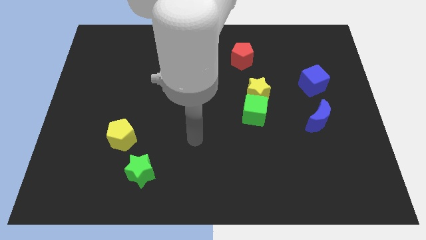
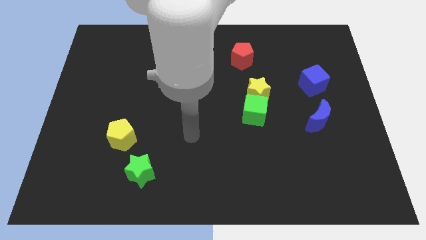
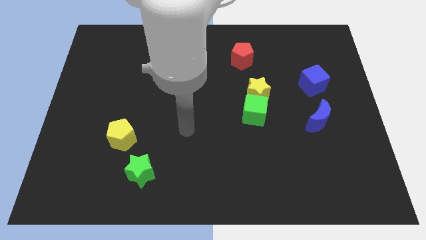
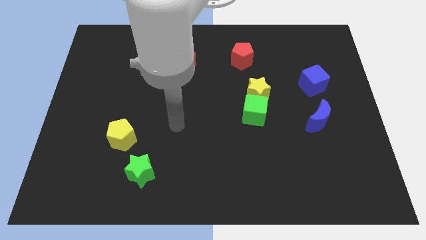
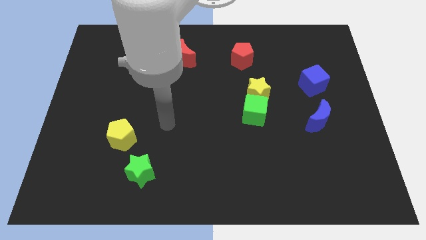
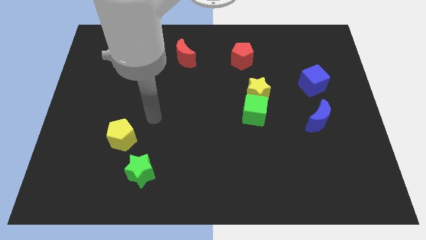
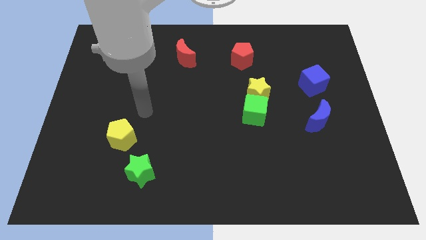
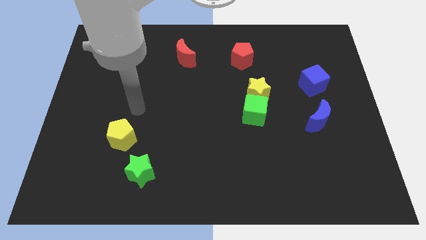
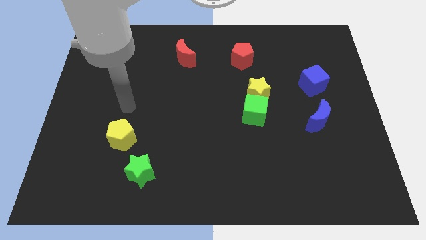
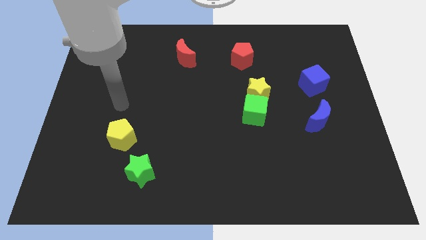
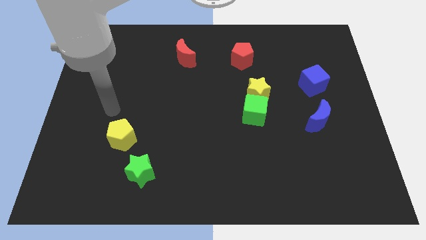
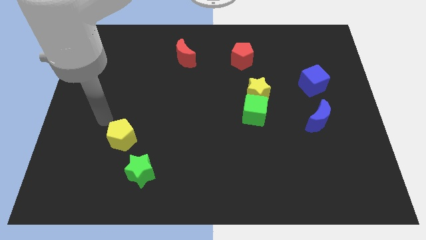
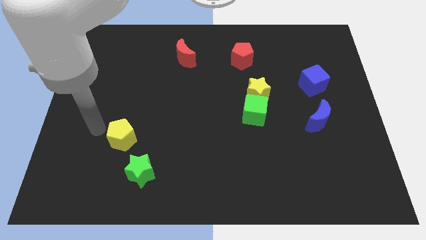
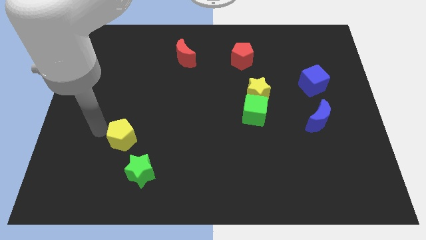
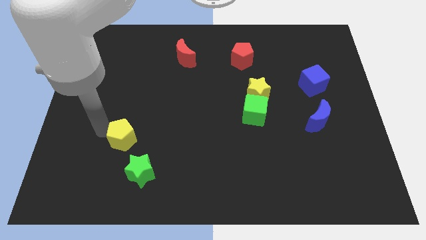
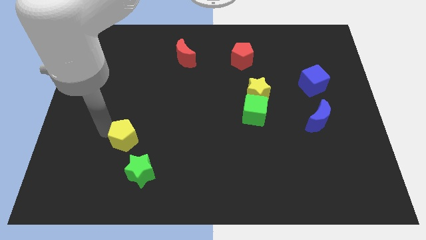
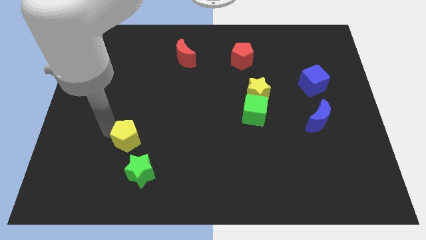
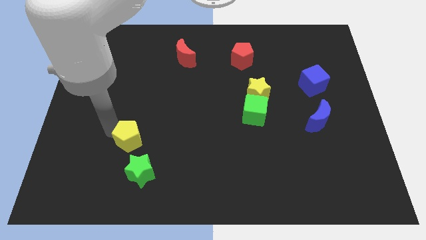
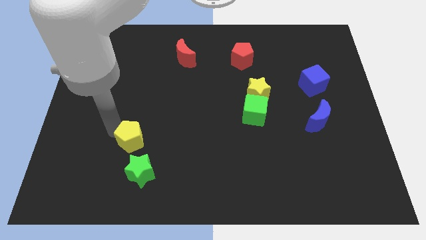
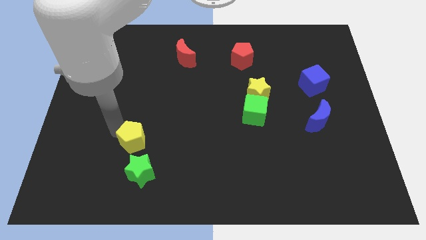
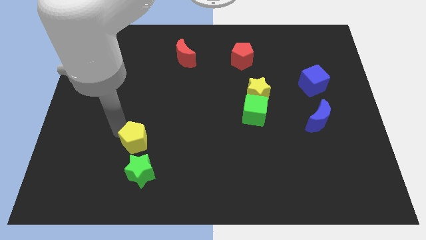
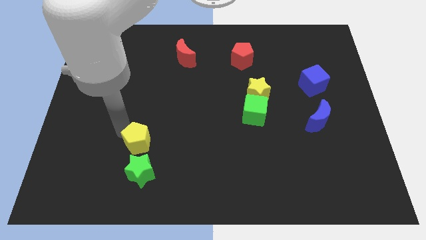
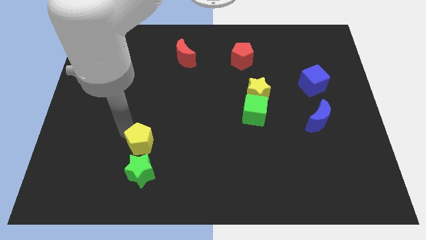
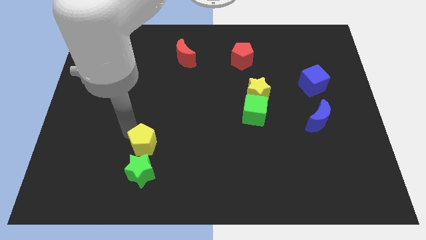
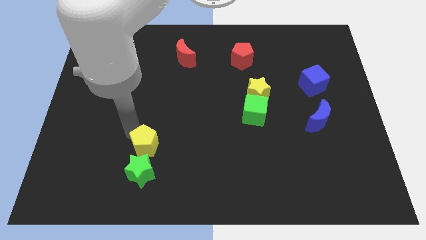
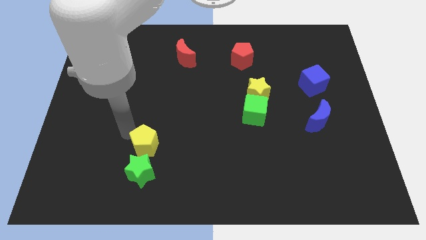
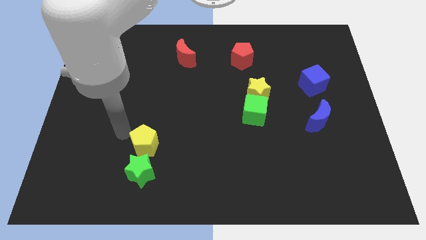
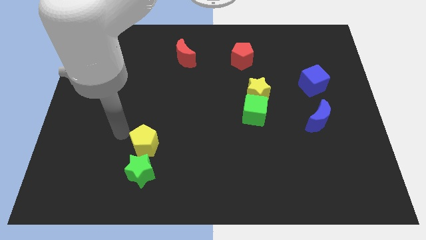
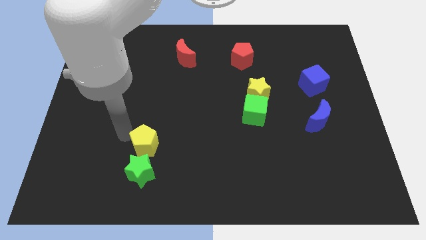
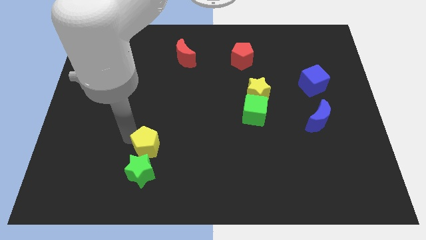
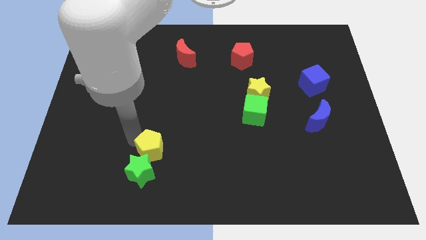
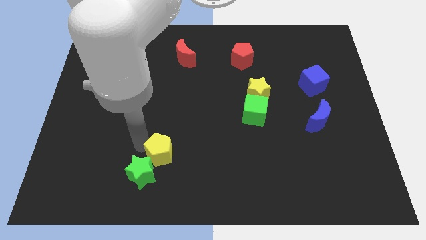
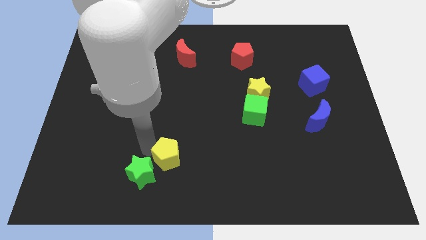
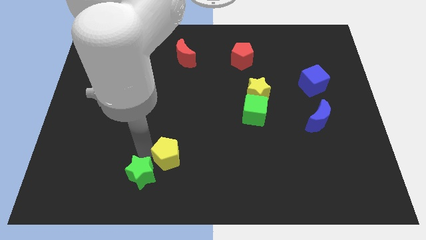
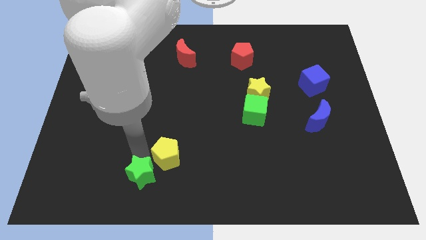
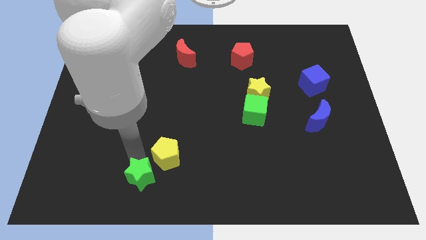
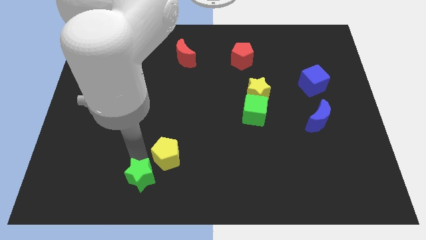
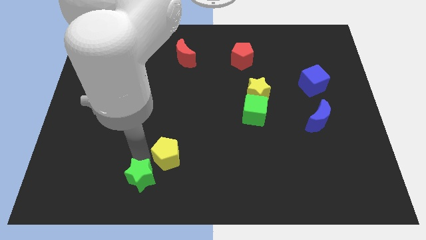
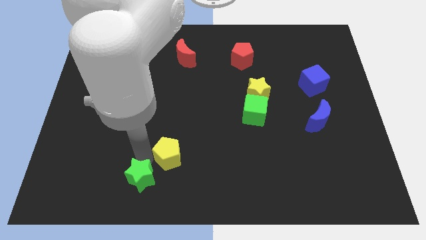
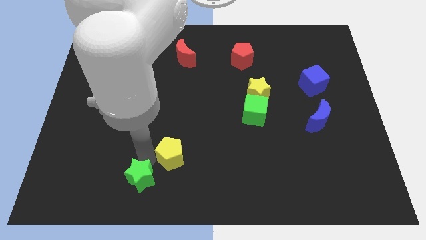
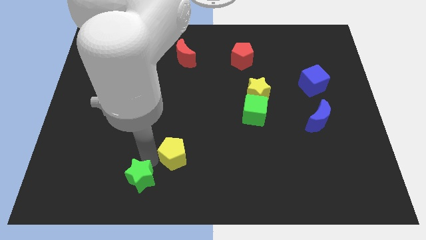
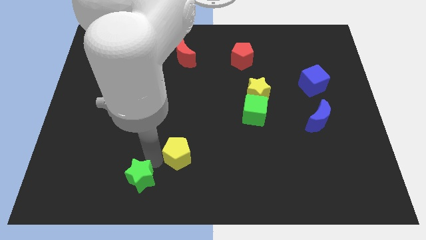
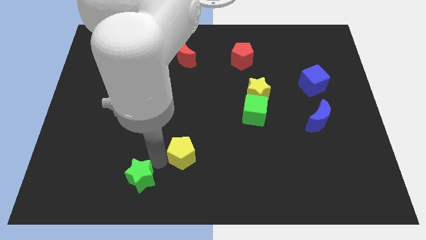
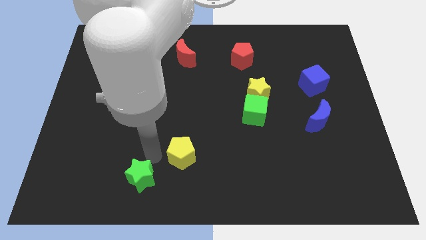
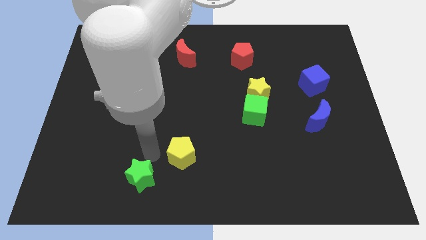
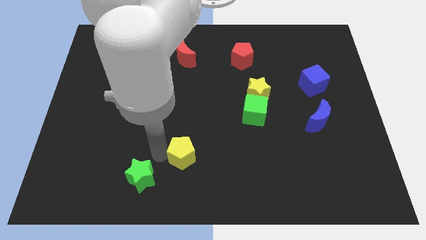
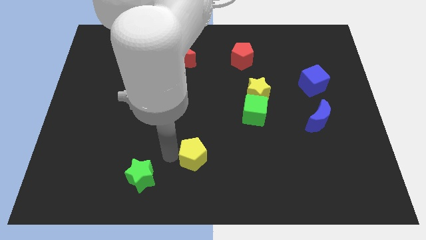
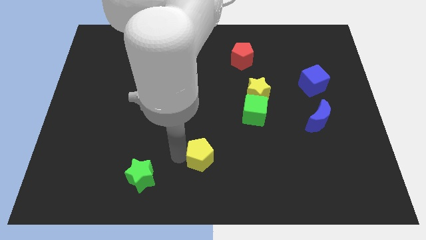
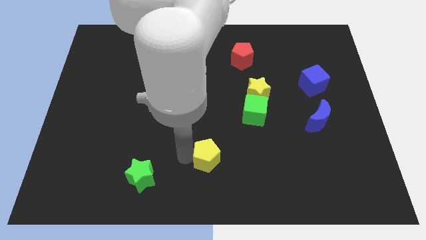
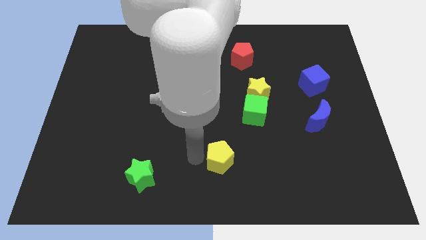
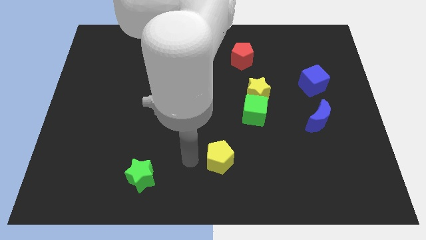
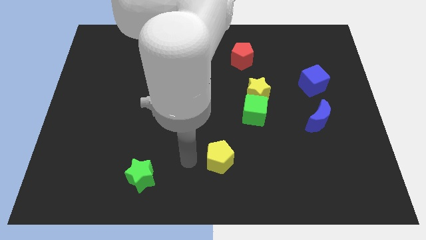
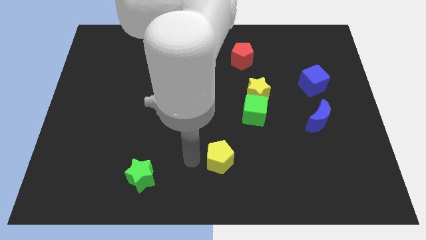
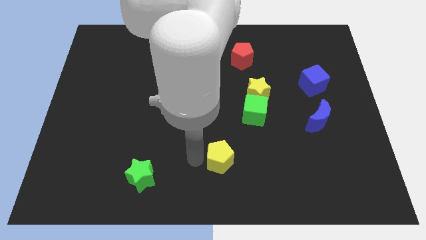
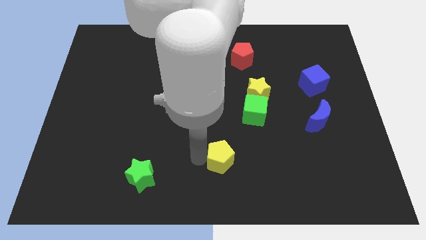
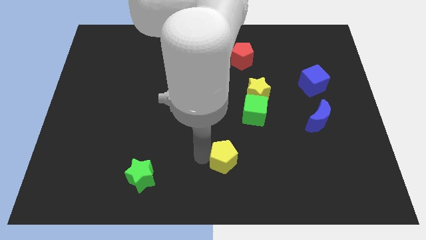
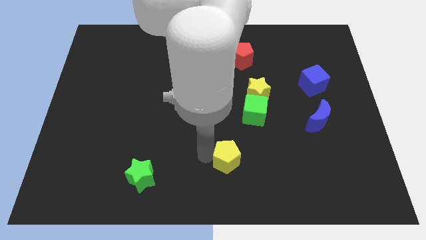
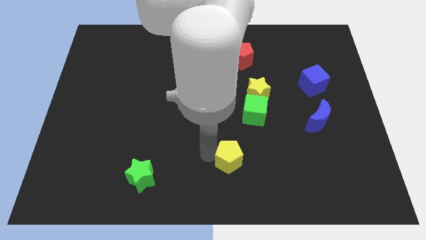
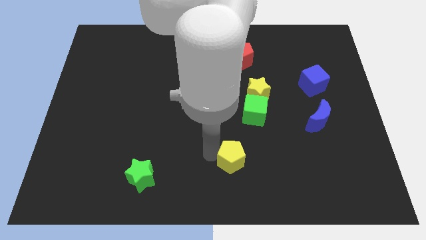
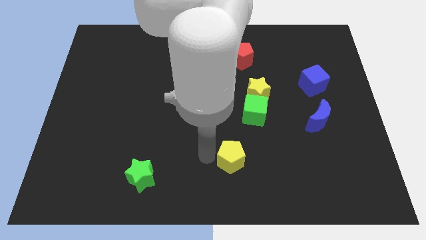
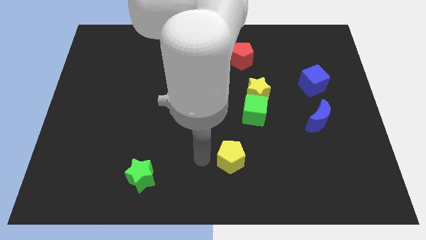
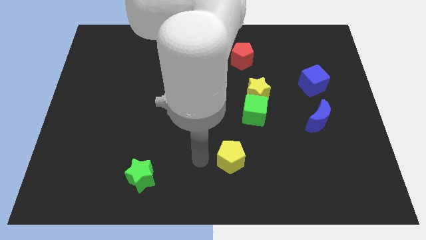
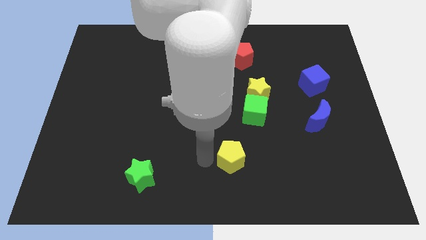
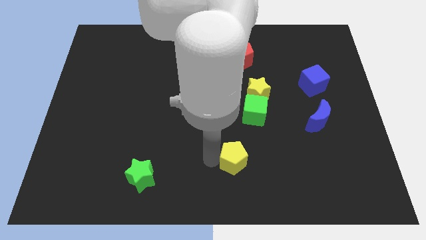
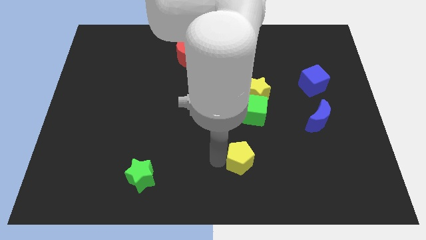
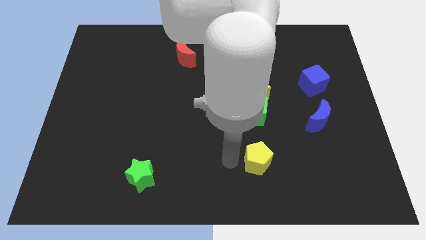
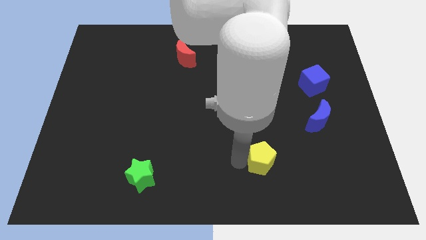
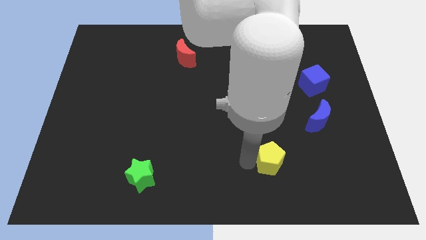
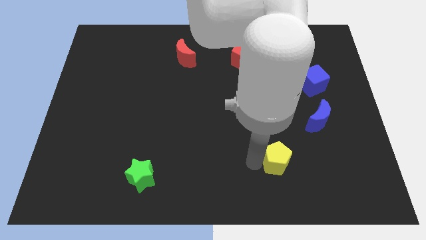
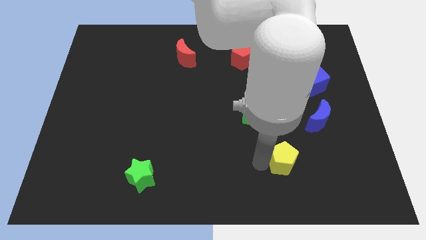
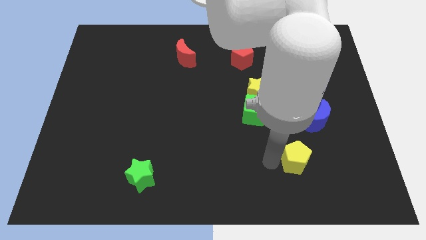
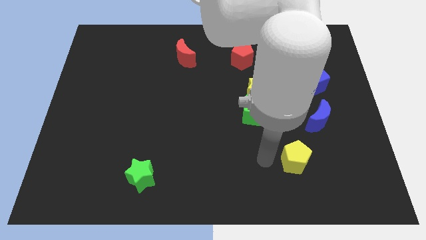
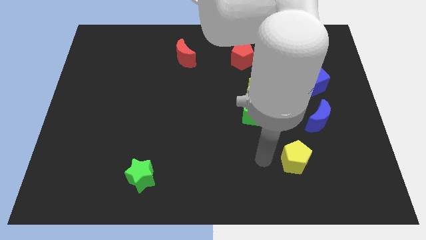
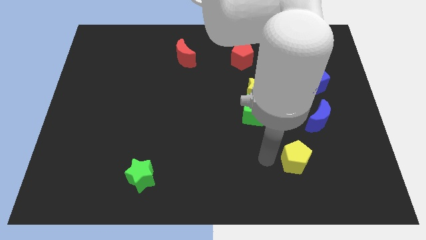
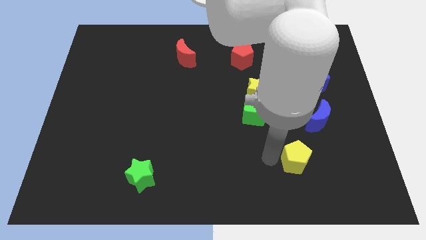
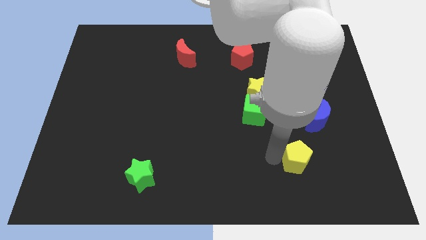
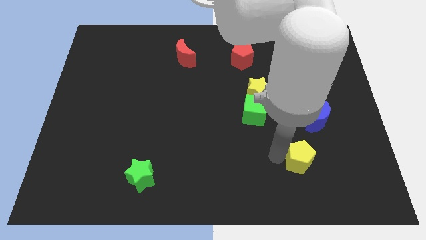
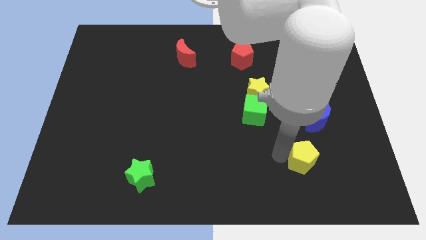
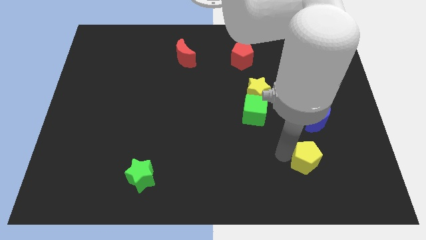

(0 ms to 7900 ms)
move the yellow pentagon to the bottom side of the blue moon
